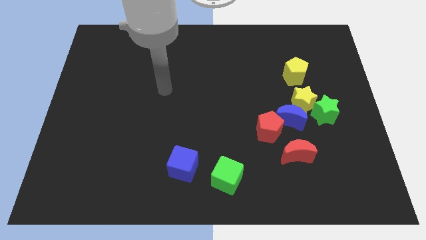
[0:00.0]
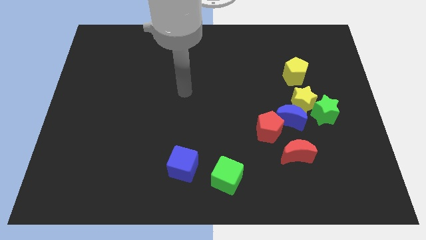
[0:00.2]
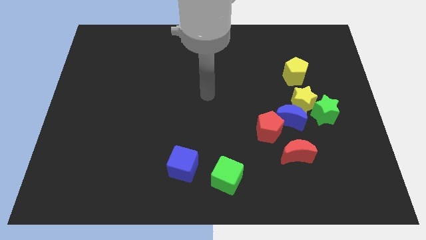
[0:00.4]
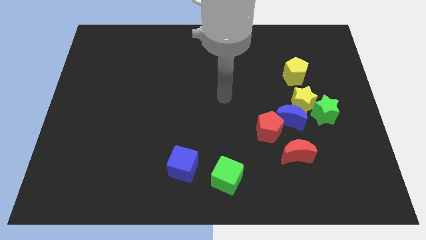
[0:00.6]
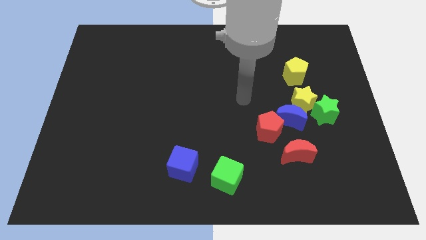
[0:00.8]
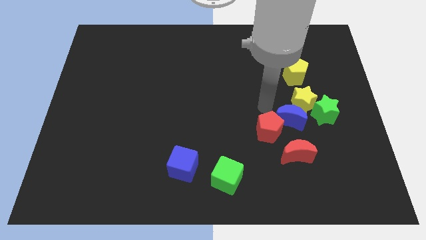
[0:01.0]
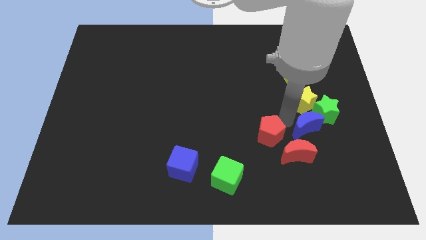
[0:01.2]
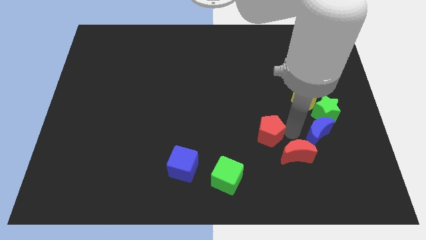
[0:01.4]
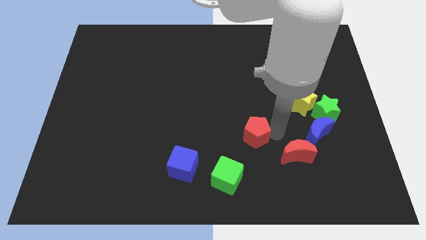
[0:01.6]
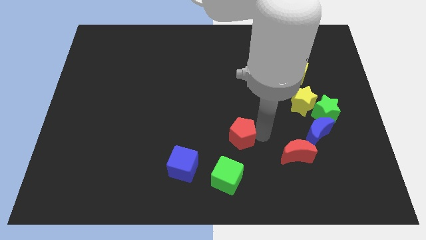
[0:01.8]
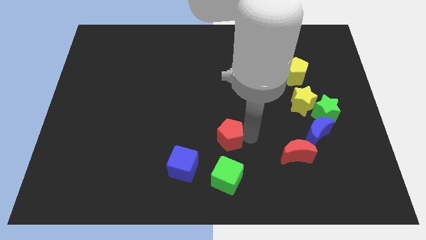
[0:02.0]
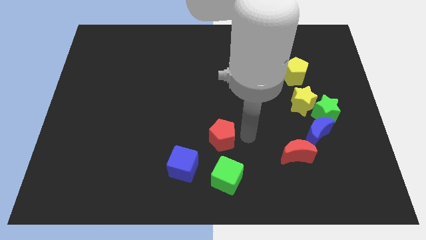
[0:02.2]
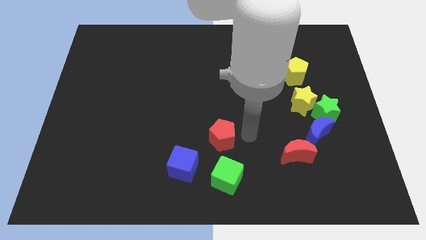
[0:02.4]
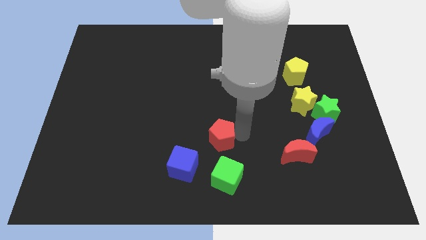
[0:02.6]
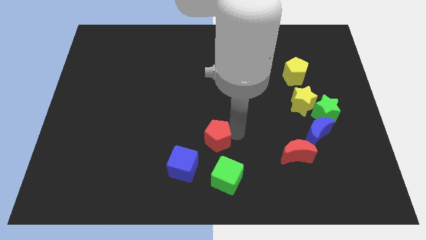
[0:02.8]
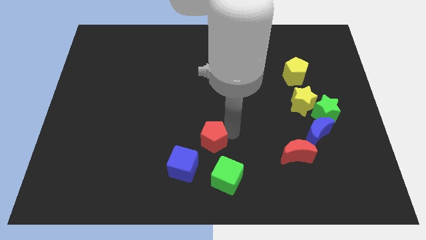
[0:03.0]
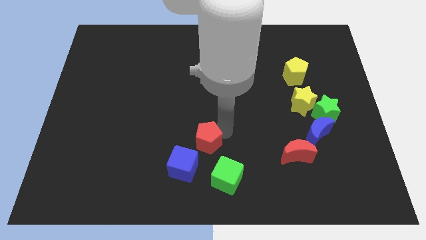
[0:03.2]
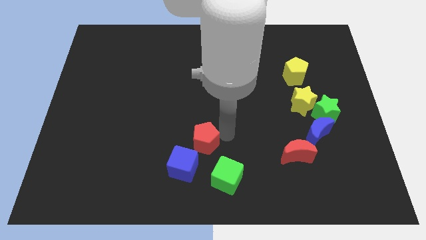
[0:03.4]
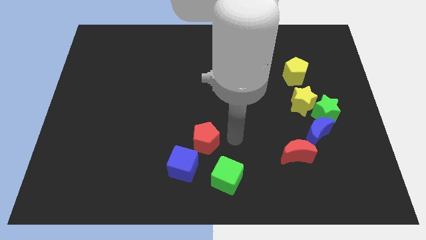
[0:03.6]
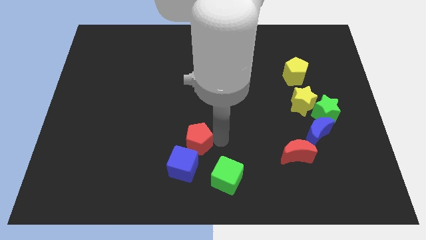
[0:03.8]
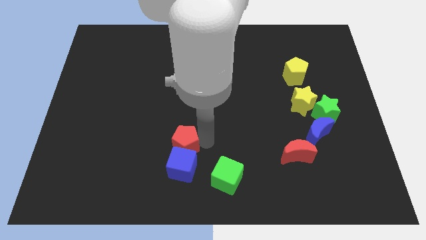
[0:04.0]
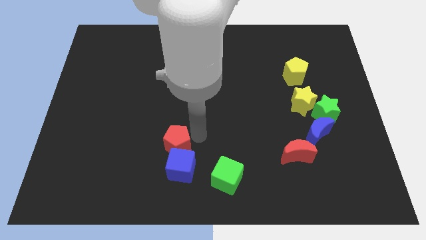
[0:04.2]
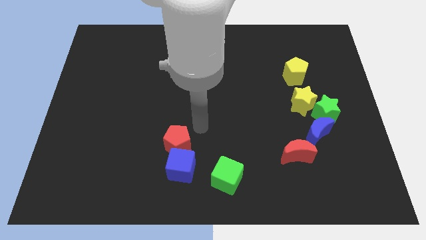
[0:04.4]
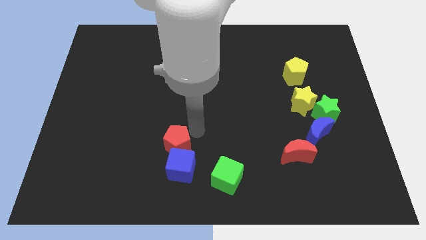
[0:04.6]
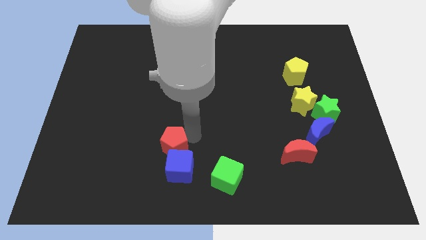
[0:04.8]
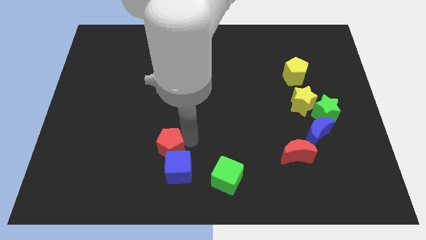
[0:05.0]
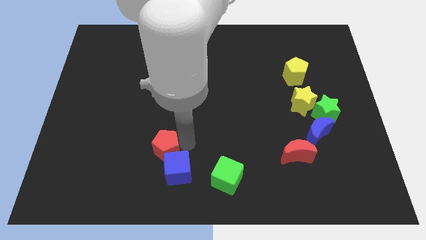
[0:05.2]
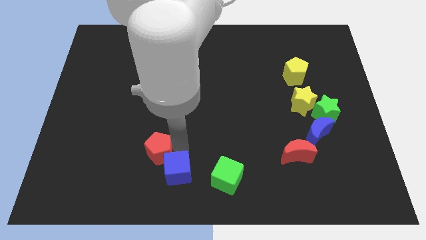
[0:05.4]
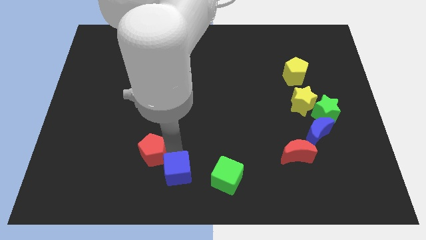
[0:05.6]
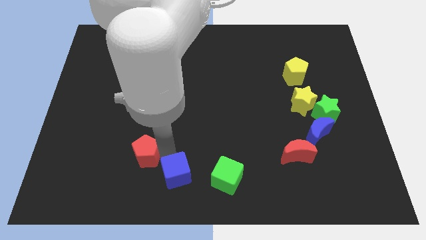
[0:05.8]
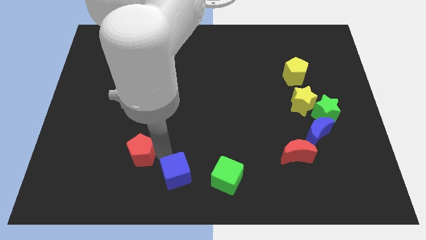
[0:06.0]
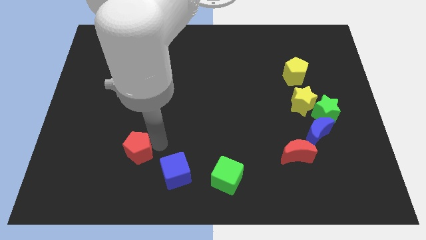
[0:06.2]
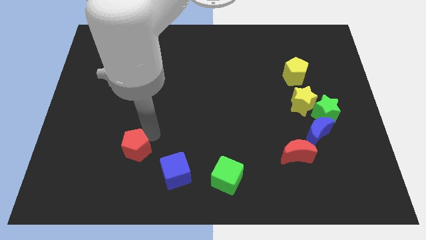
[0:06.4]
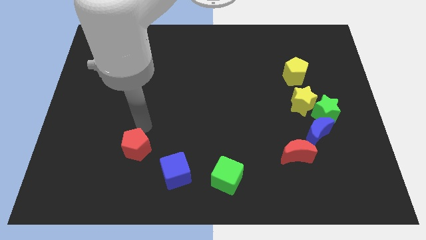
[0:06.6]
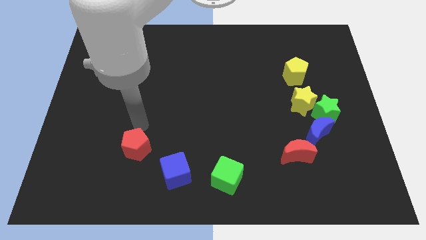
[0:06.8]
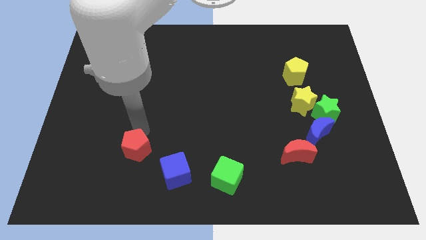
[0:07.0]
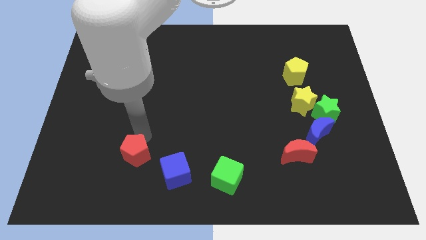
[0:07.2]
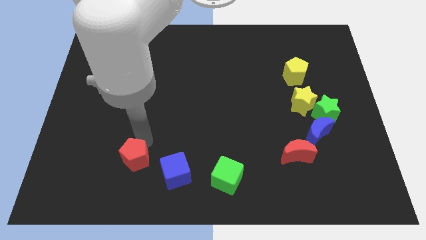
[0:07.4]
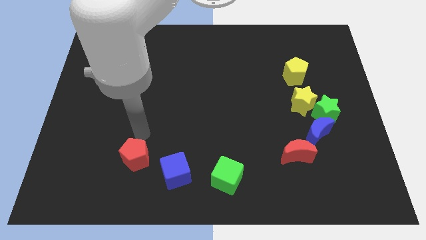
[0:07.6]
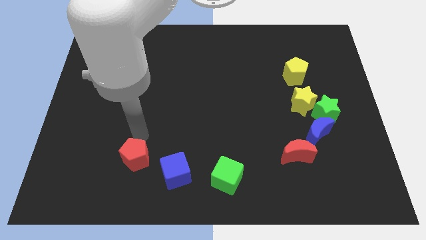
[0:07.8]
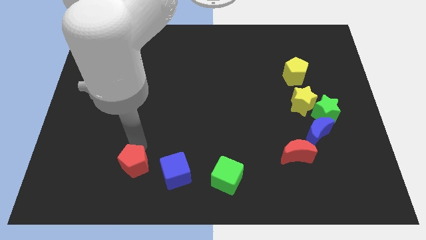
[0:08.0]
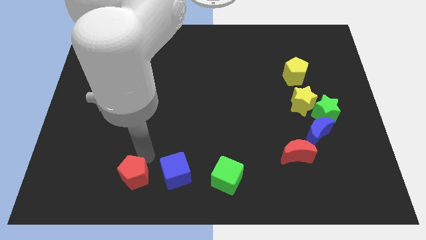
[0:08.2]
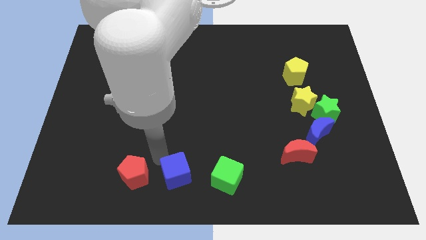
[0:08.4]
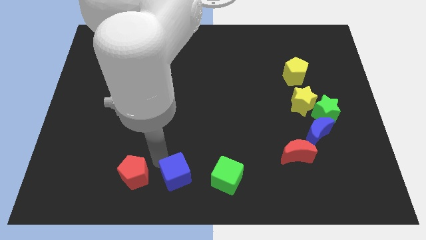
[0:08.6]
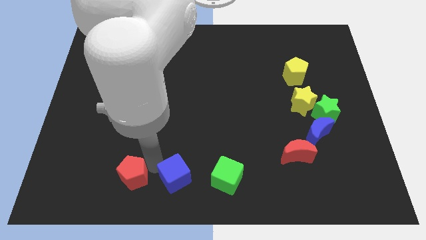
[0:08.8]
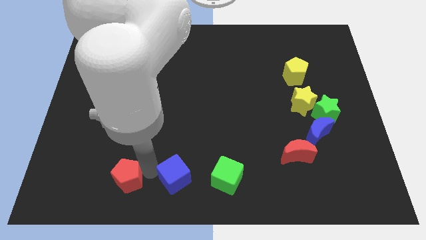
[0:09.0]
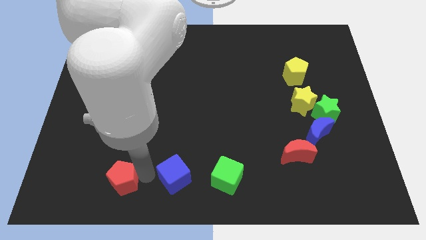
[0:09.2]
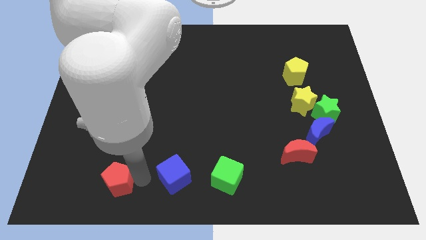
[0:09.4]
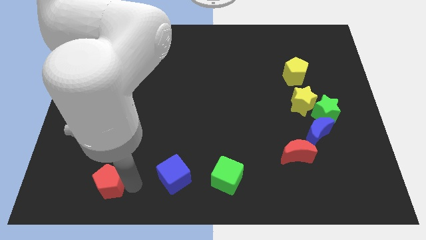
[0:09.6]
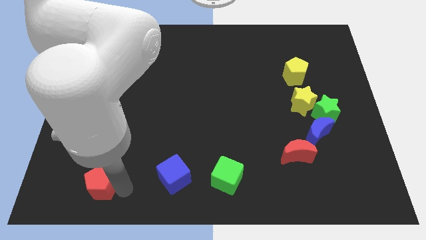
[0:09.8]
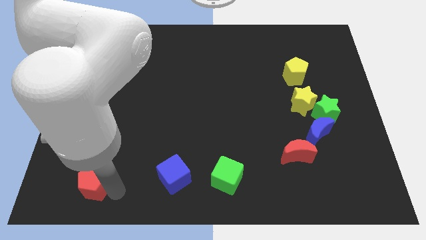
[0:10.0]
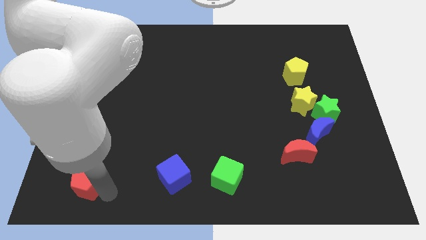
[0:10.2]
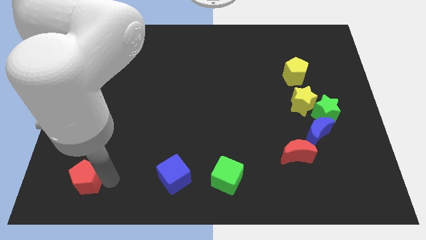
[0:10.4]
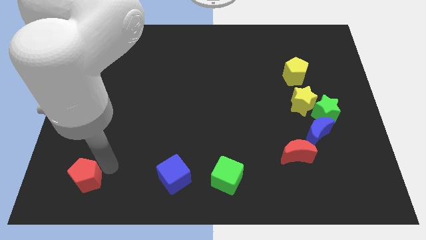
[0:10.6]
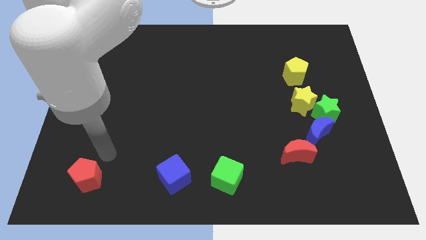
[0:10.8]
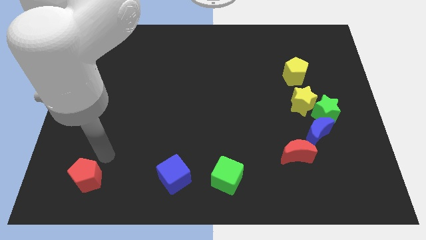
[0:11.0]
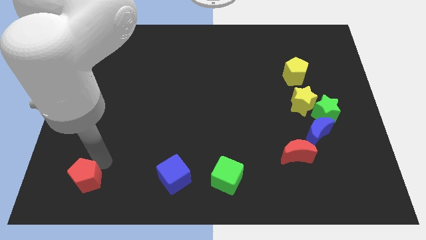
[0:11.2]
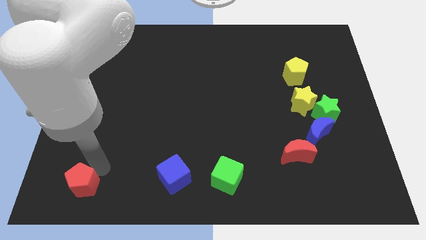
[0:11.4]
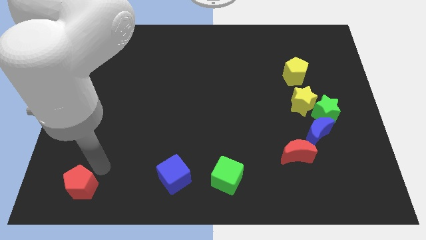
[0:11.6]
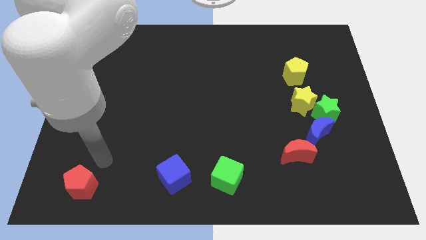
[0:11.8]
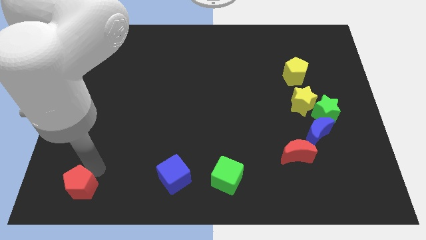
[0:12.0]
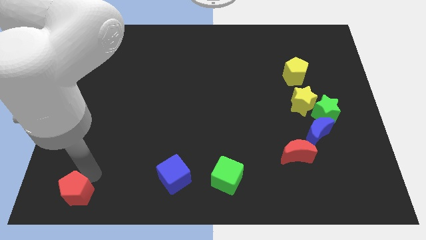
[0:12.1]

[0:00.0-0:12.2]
put the red pentagon to the bottom left corner
